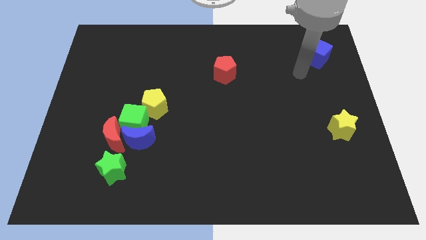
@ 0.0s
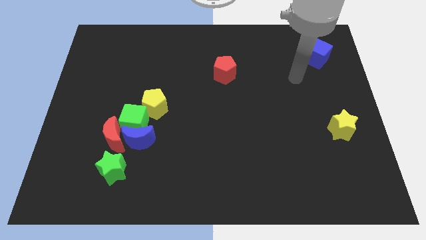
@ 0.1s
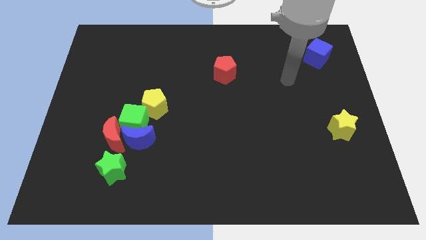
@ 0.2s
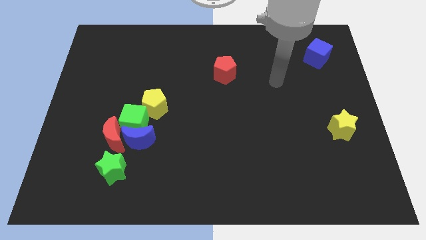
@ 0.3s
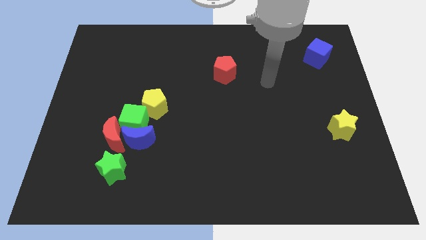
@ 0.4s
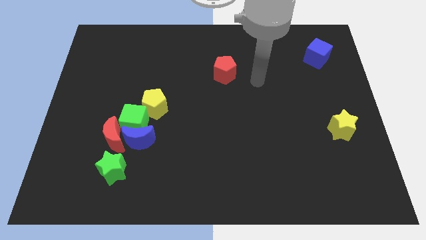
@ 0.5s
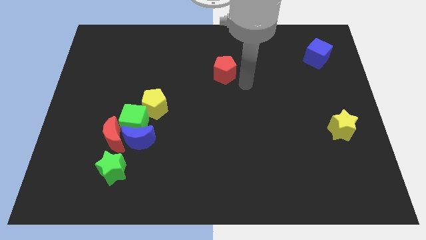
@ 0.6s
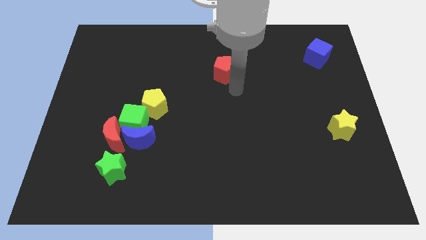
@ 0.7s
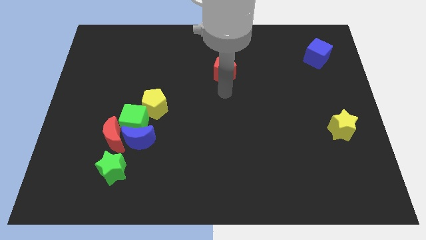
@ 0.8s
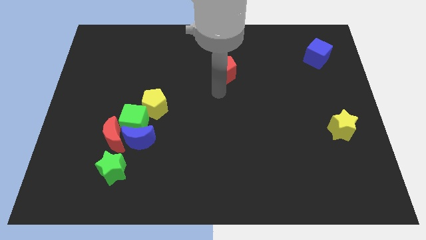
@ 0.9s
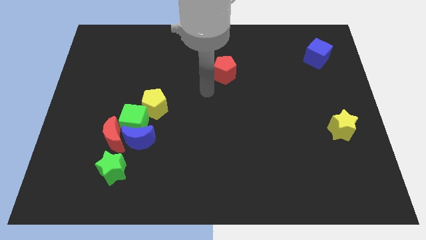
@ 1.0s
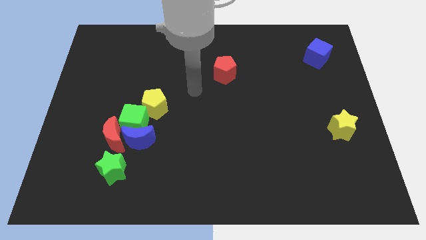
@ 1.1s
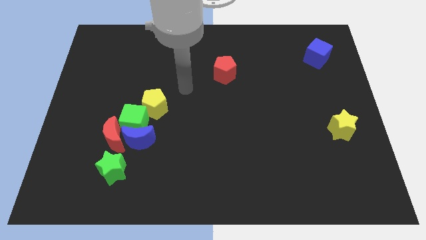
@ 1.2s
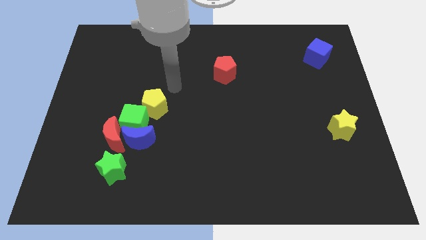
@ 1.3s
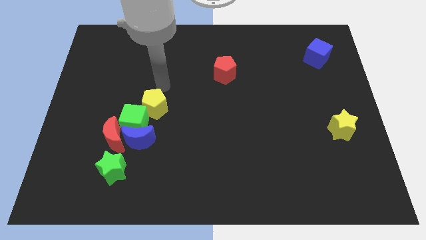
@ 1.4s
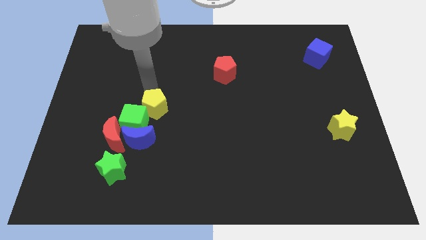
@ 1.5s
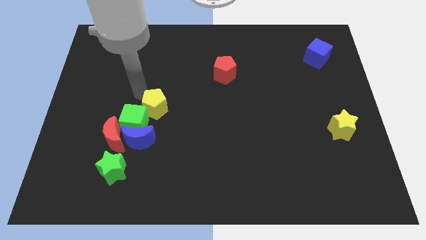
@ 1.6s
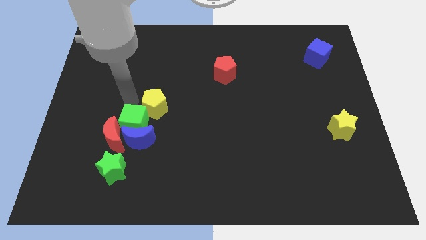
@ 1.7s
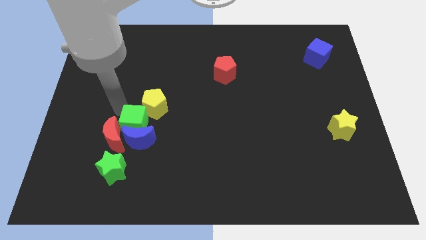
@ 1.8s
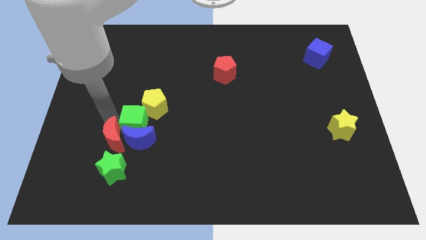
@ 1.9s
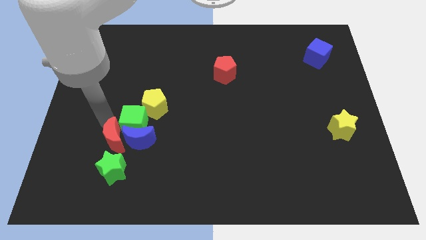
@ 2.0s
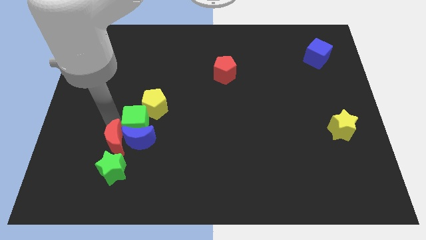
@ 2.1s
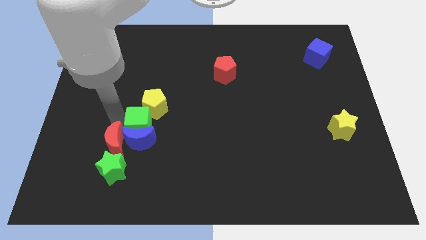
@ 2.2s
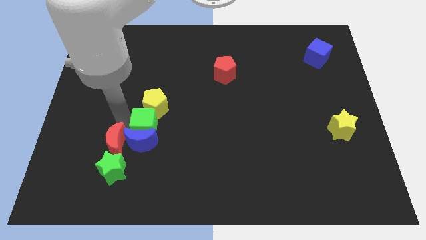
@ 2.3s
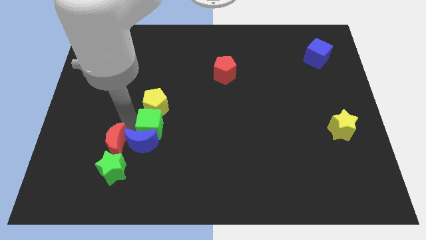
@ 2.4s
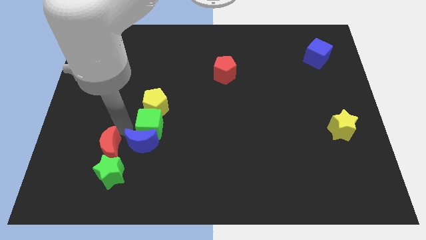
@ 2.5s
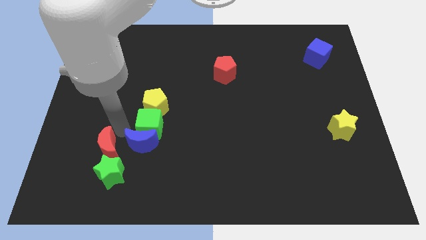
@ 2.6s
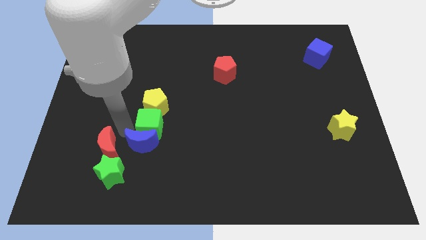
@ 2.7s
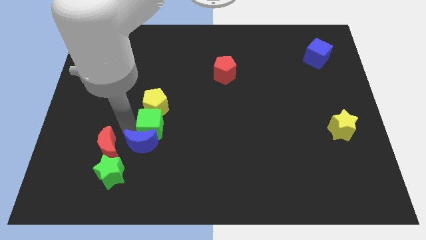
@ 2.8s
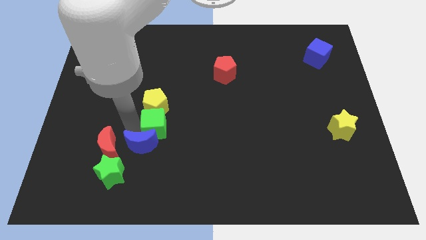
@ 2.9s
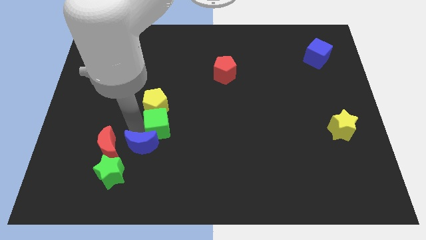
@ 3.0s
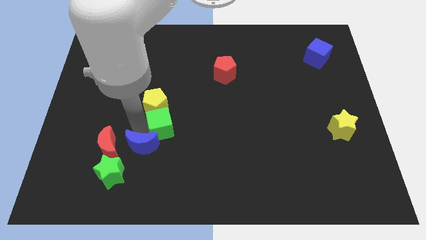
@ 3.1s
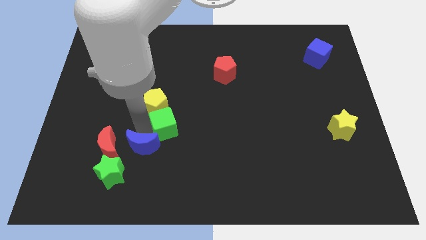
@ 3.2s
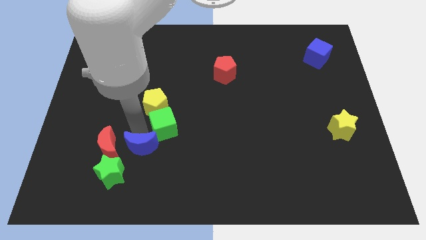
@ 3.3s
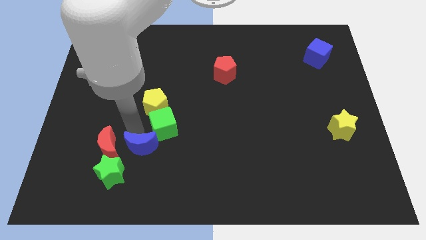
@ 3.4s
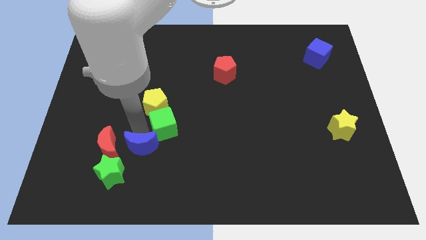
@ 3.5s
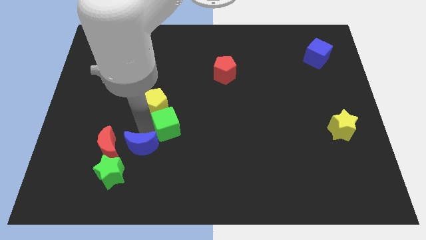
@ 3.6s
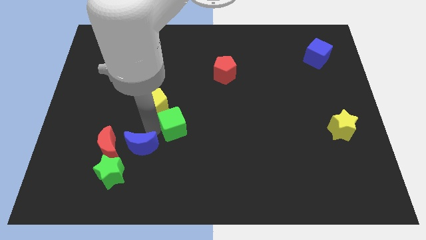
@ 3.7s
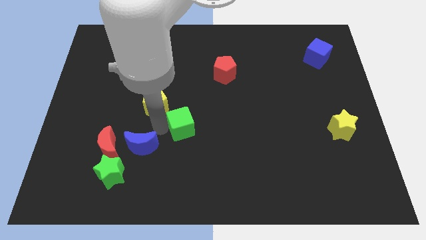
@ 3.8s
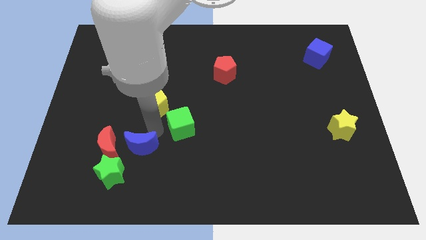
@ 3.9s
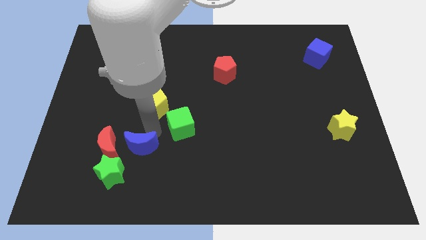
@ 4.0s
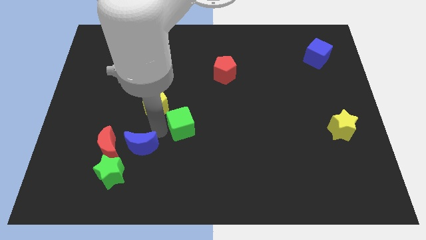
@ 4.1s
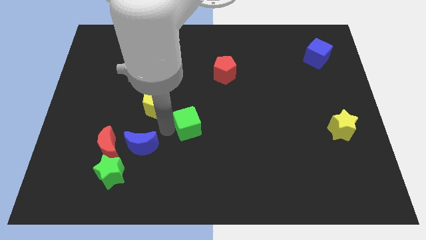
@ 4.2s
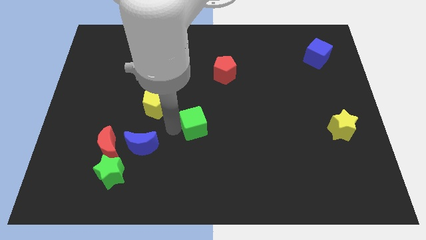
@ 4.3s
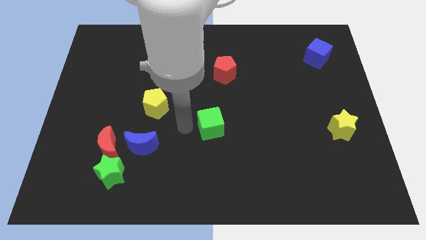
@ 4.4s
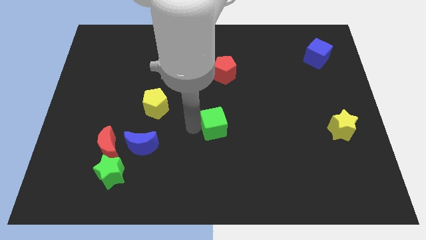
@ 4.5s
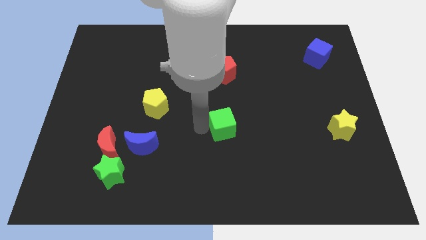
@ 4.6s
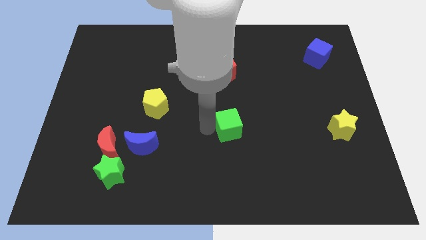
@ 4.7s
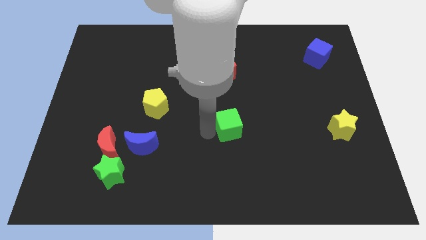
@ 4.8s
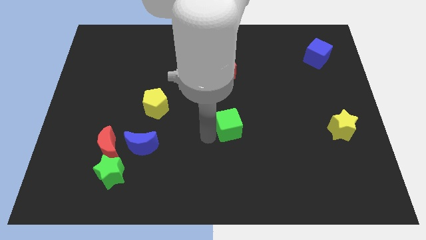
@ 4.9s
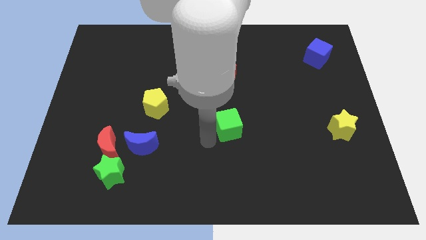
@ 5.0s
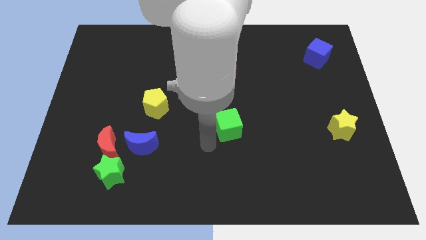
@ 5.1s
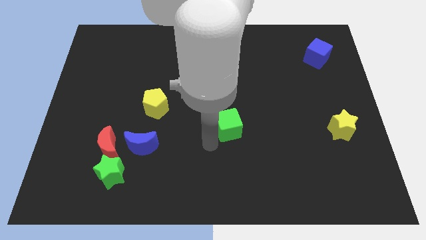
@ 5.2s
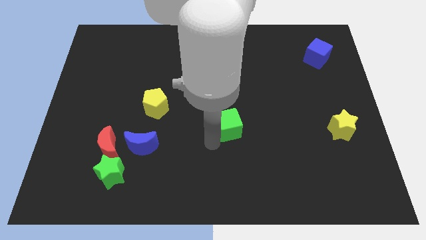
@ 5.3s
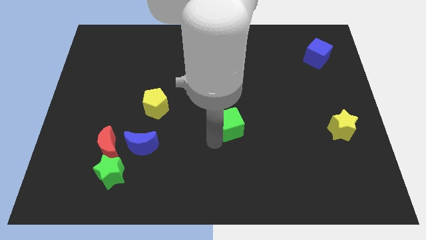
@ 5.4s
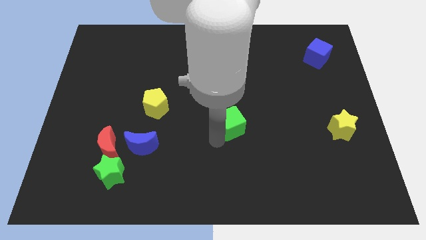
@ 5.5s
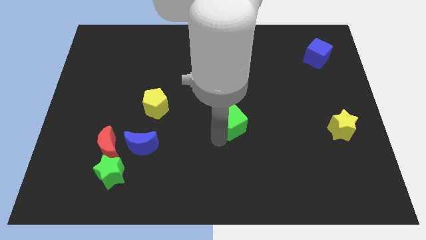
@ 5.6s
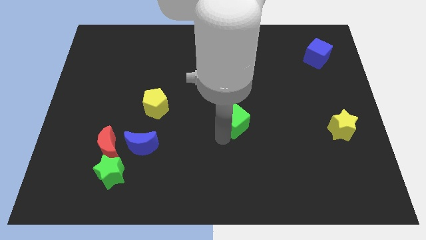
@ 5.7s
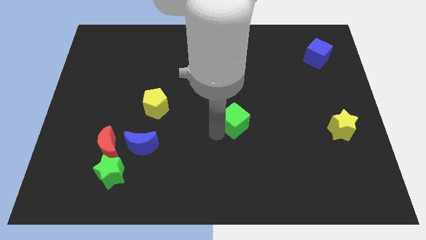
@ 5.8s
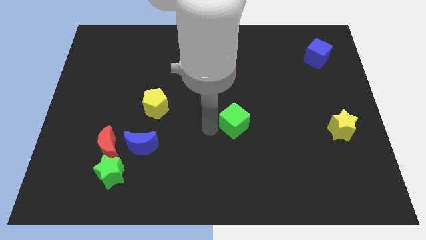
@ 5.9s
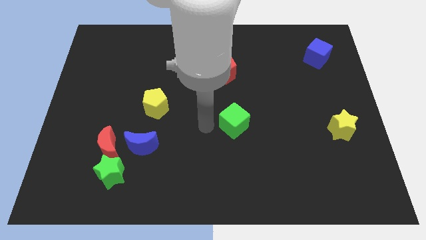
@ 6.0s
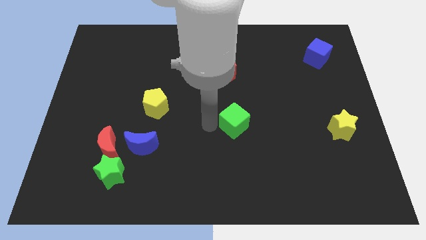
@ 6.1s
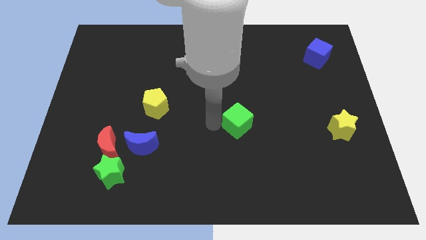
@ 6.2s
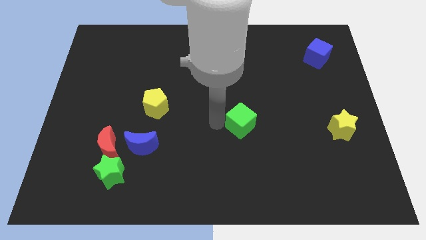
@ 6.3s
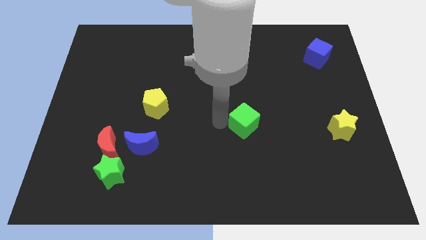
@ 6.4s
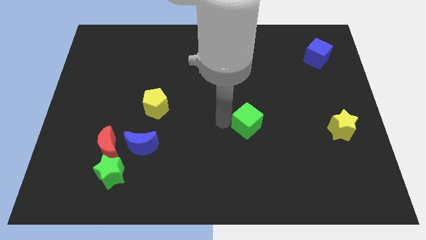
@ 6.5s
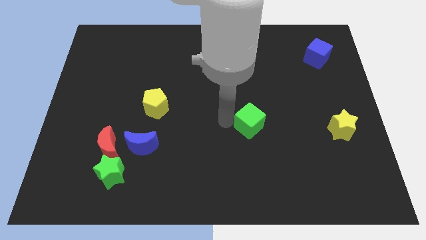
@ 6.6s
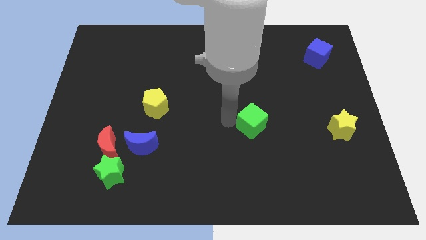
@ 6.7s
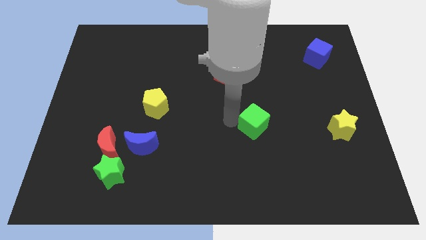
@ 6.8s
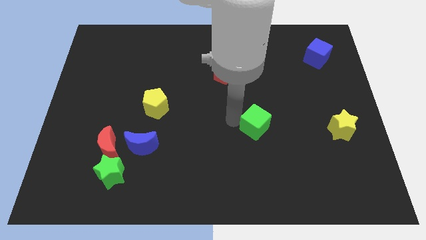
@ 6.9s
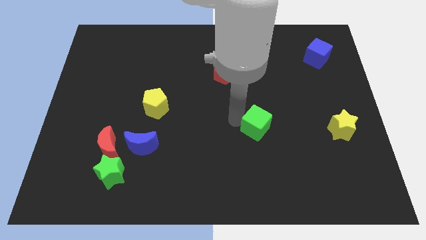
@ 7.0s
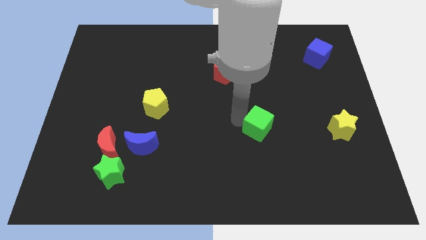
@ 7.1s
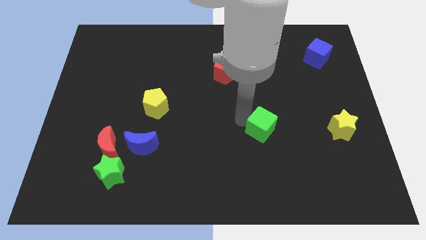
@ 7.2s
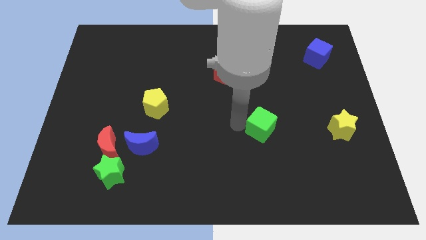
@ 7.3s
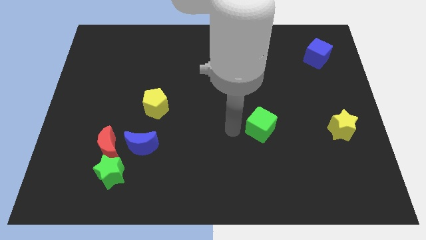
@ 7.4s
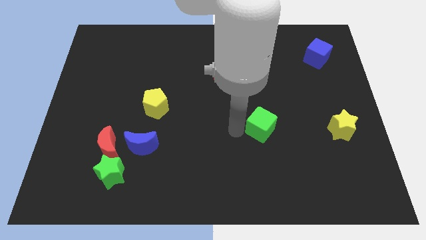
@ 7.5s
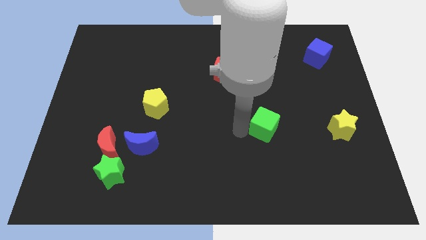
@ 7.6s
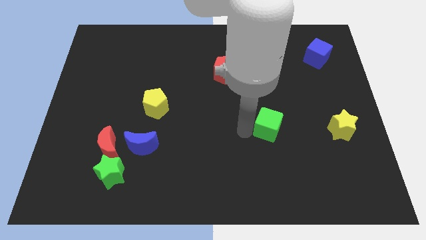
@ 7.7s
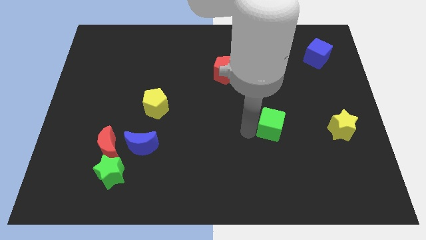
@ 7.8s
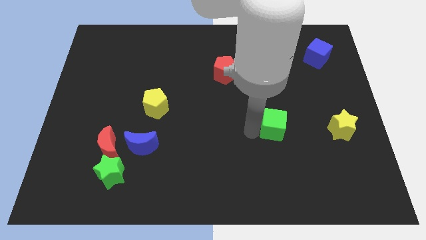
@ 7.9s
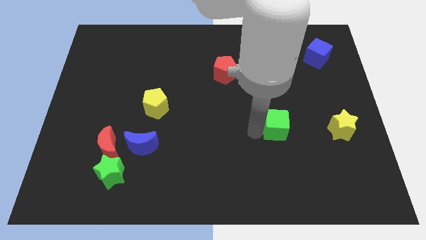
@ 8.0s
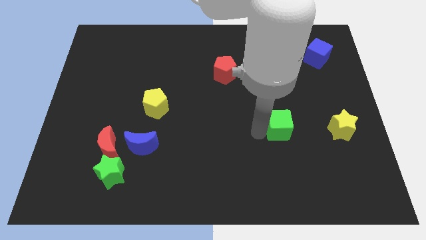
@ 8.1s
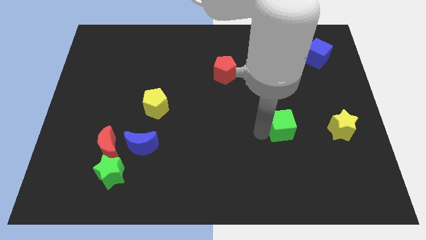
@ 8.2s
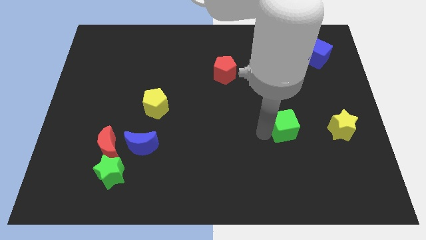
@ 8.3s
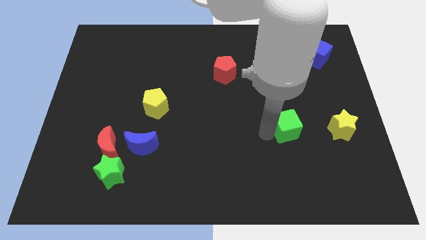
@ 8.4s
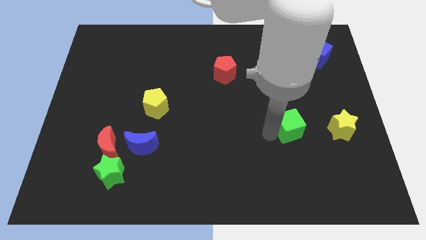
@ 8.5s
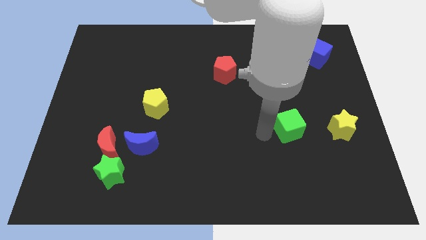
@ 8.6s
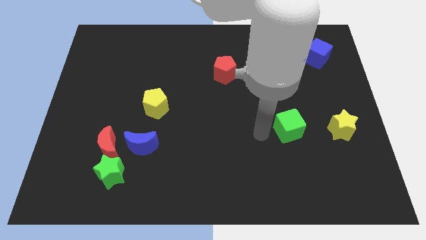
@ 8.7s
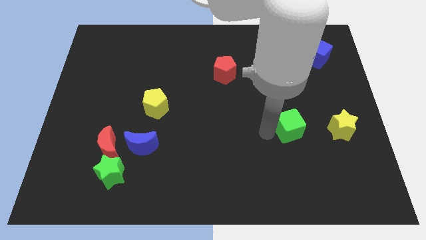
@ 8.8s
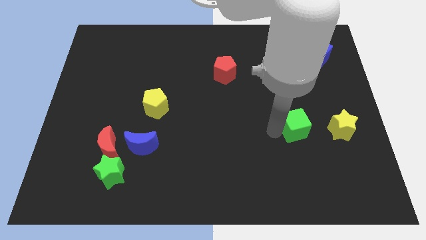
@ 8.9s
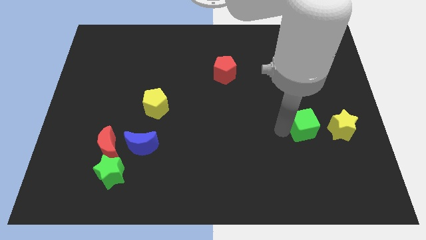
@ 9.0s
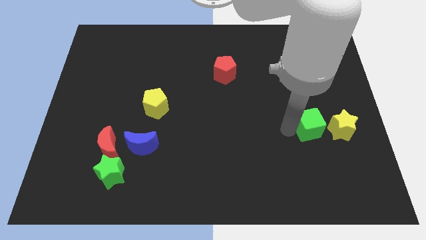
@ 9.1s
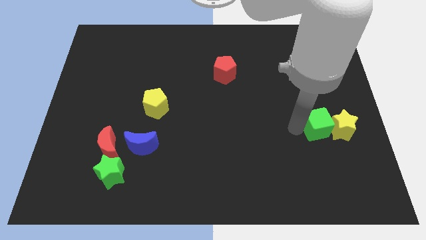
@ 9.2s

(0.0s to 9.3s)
push the green cube towards the yellow star
